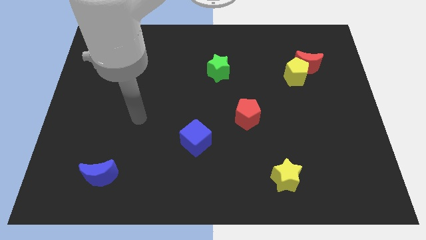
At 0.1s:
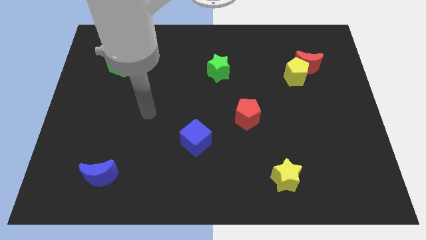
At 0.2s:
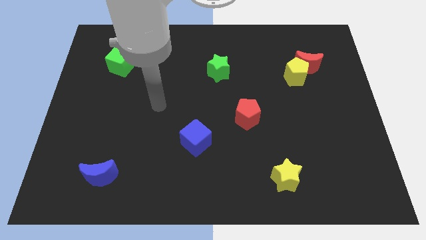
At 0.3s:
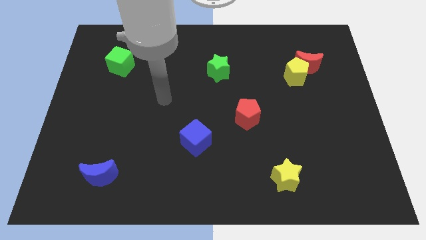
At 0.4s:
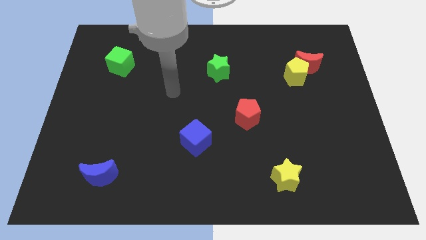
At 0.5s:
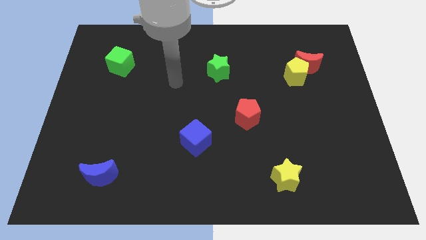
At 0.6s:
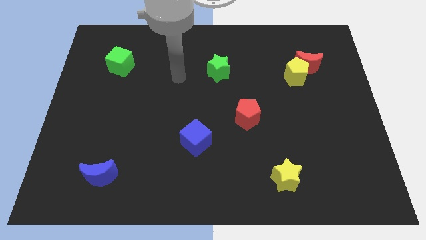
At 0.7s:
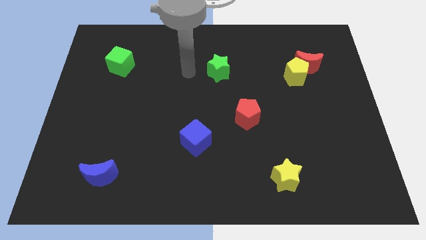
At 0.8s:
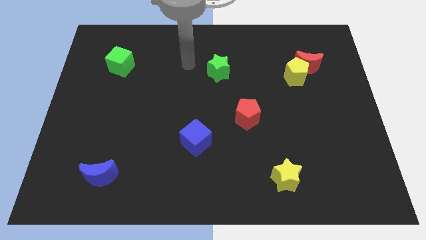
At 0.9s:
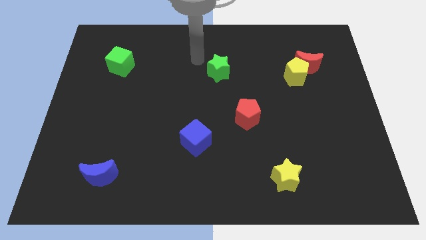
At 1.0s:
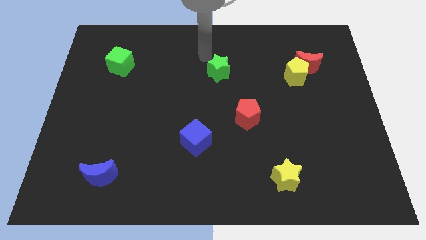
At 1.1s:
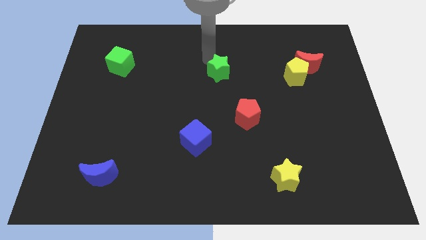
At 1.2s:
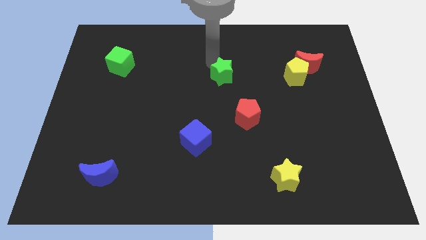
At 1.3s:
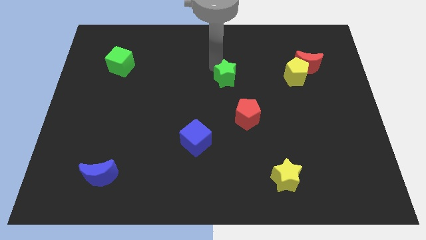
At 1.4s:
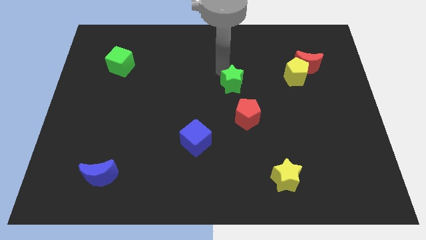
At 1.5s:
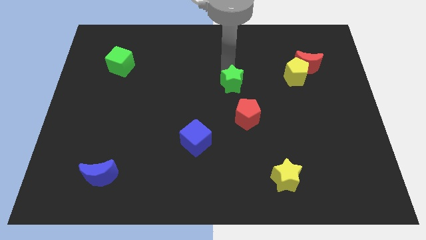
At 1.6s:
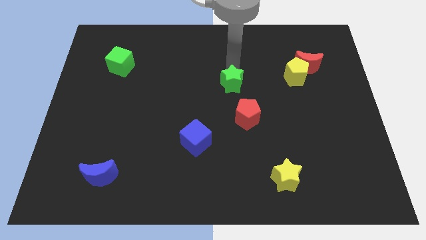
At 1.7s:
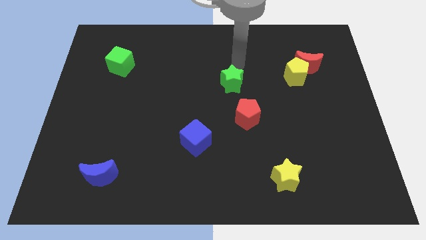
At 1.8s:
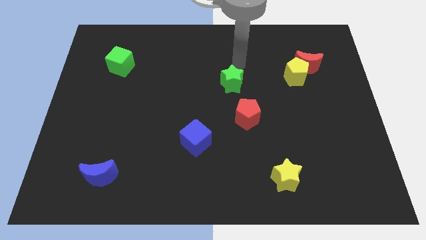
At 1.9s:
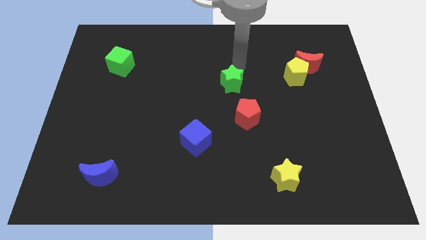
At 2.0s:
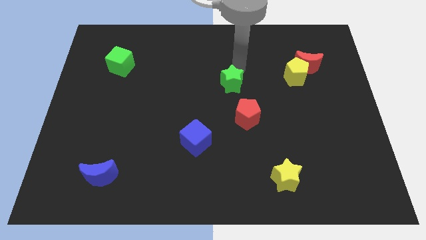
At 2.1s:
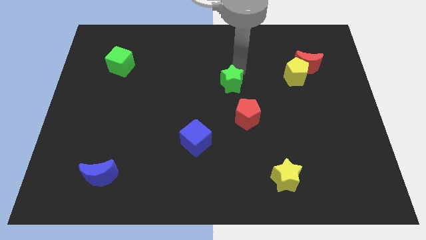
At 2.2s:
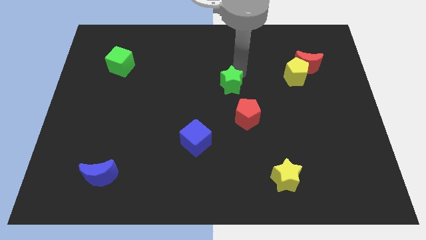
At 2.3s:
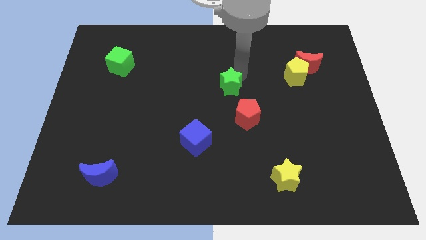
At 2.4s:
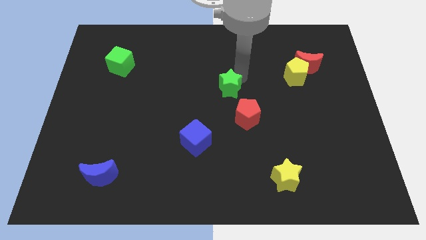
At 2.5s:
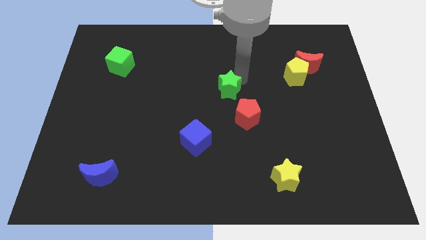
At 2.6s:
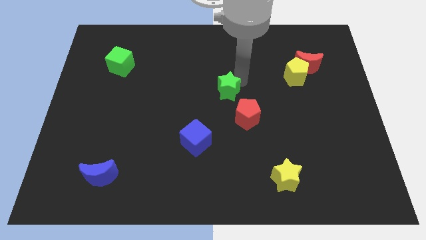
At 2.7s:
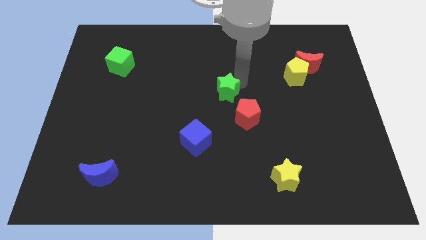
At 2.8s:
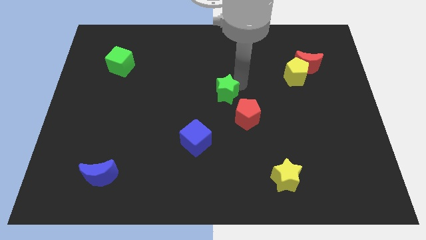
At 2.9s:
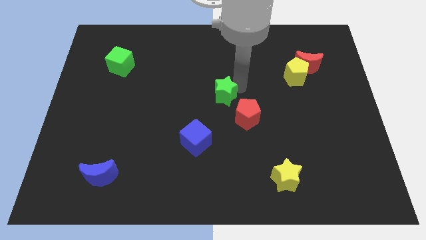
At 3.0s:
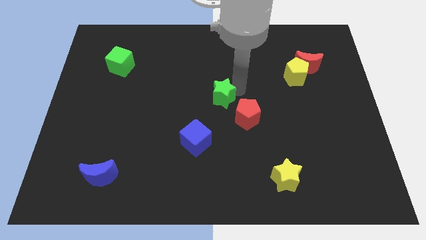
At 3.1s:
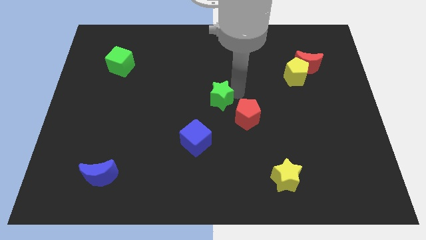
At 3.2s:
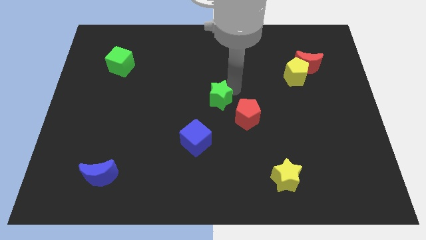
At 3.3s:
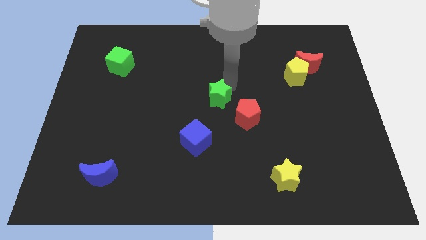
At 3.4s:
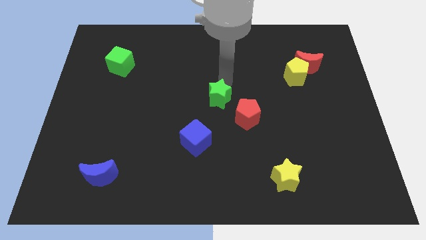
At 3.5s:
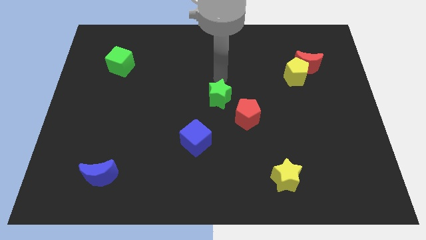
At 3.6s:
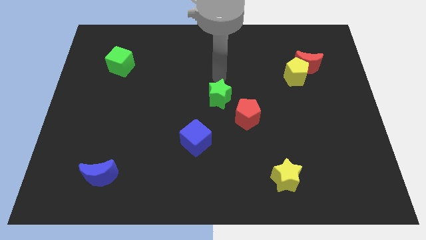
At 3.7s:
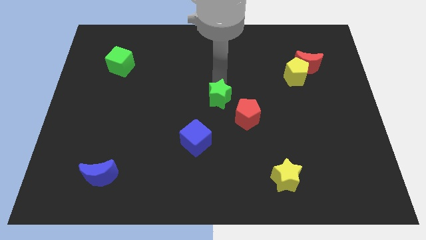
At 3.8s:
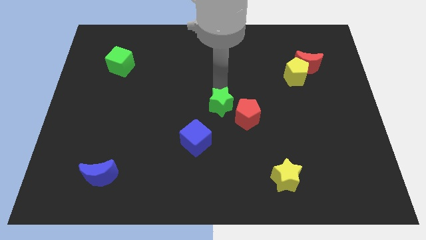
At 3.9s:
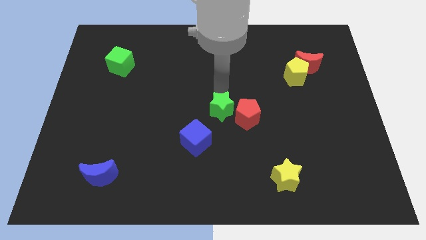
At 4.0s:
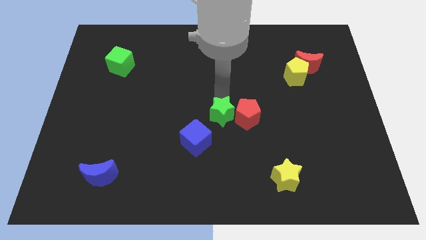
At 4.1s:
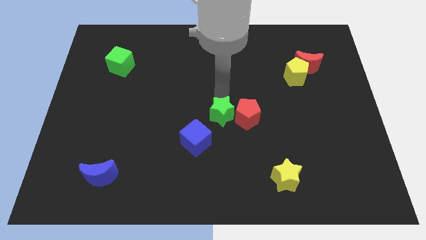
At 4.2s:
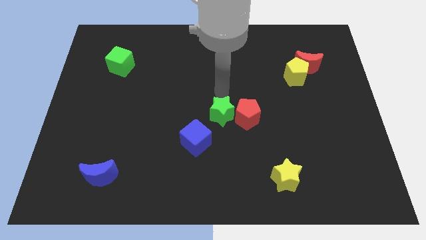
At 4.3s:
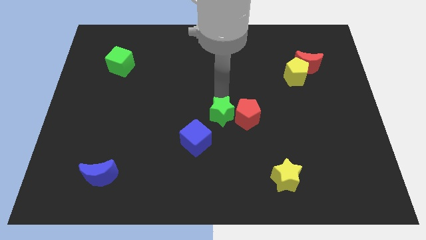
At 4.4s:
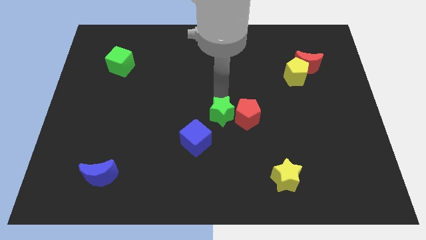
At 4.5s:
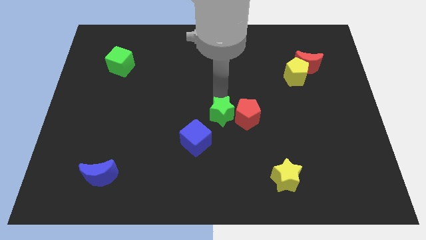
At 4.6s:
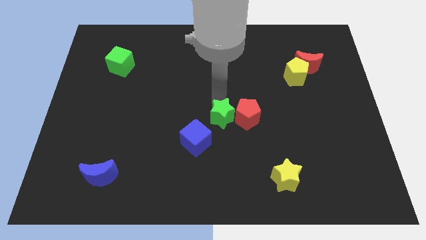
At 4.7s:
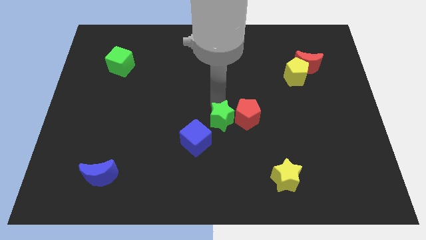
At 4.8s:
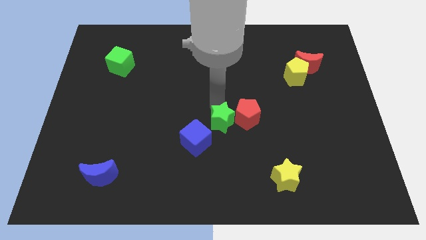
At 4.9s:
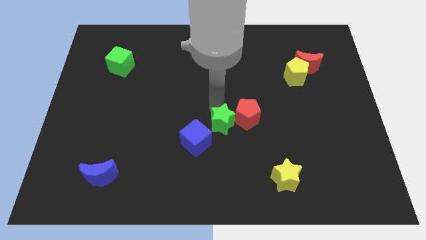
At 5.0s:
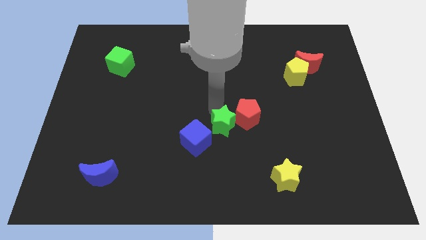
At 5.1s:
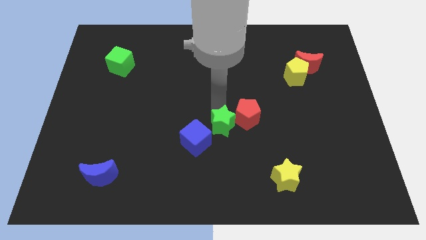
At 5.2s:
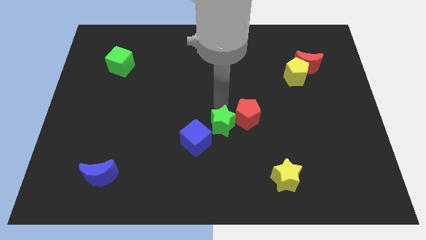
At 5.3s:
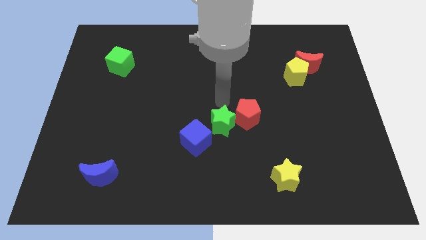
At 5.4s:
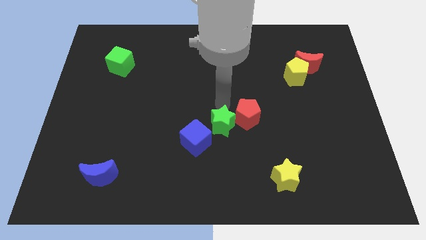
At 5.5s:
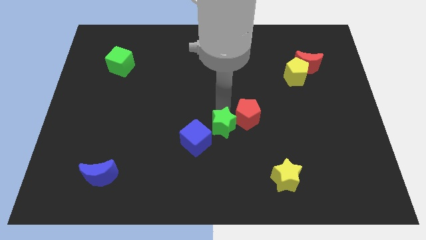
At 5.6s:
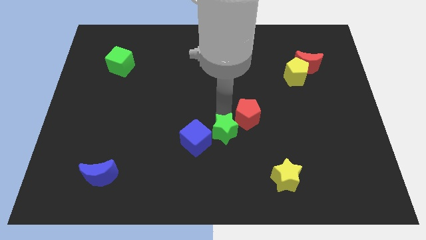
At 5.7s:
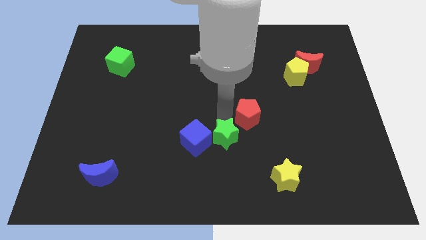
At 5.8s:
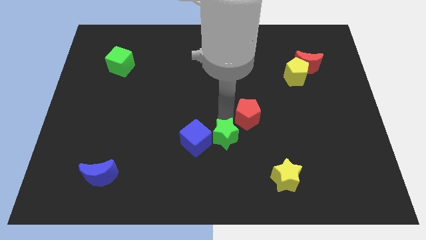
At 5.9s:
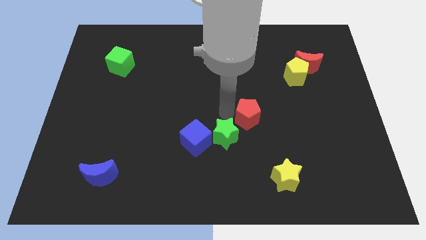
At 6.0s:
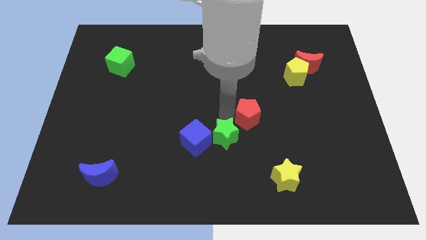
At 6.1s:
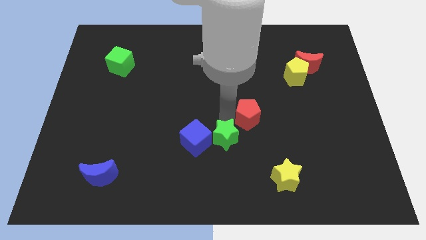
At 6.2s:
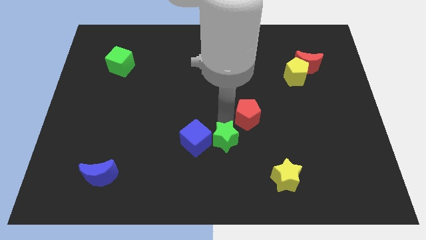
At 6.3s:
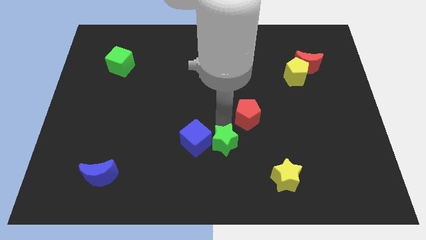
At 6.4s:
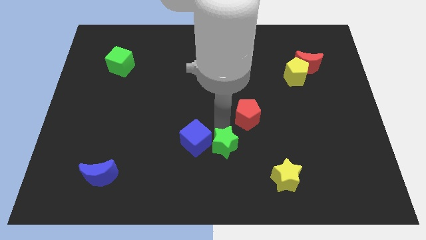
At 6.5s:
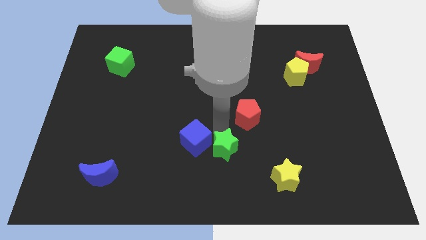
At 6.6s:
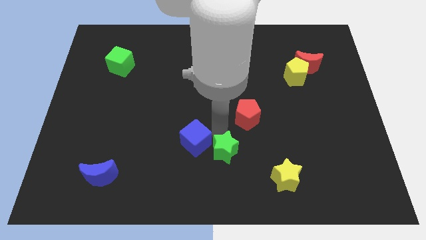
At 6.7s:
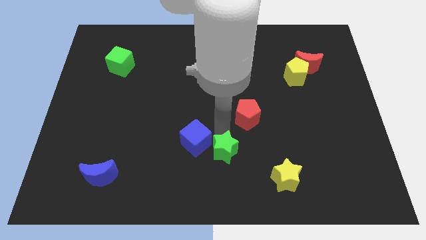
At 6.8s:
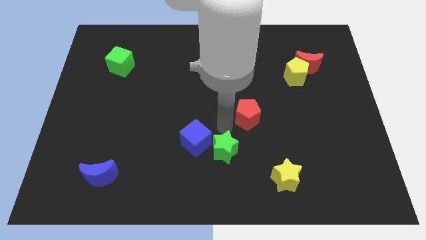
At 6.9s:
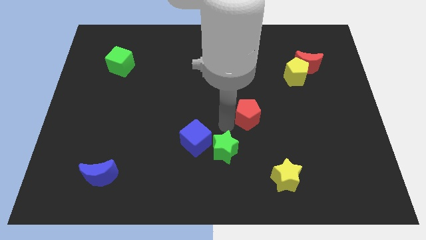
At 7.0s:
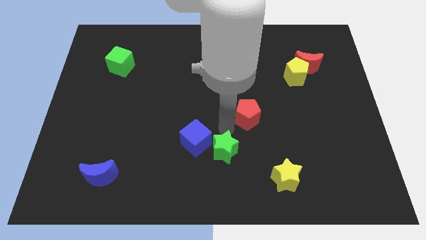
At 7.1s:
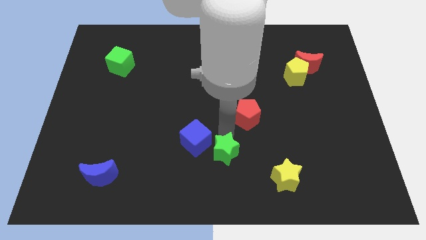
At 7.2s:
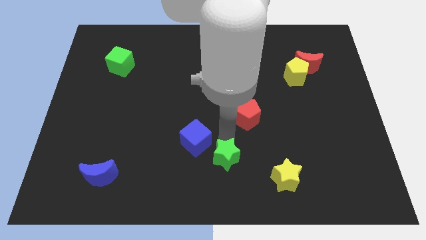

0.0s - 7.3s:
put the green star to the bottom
